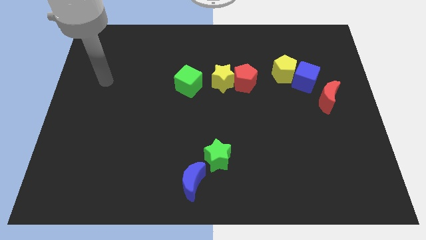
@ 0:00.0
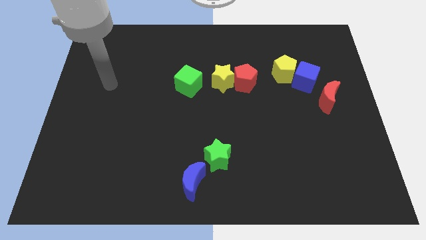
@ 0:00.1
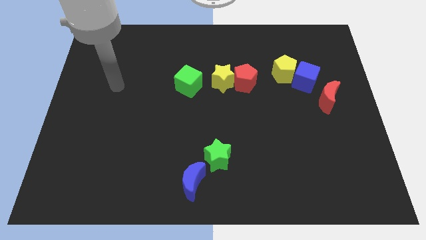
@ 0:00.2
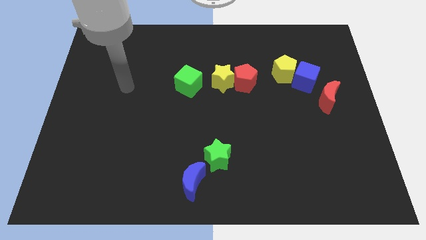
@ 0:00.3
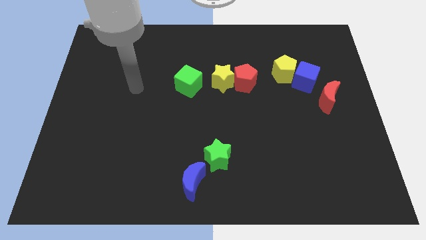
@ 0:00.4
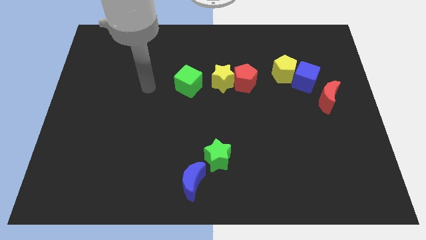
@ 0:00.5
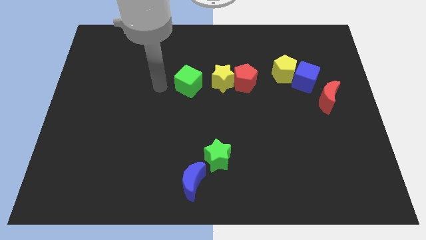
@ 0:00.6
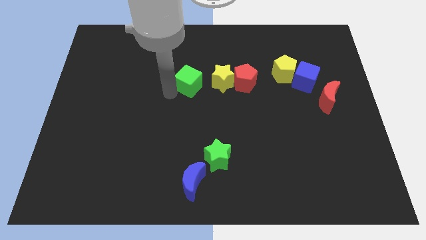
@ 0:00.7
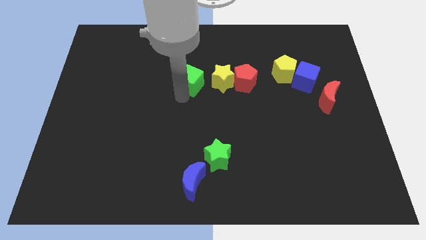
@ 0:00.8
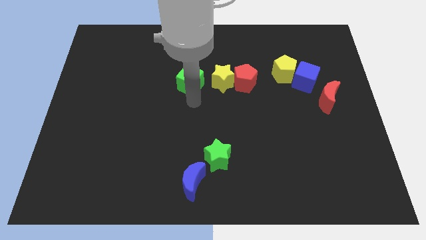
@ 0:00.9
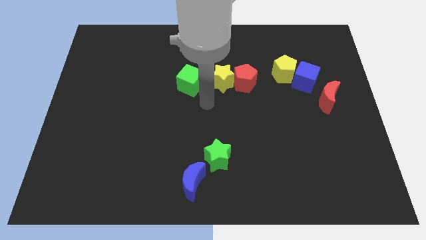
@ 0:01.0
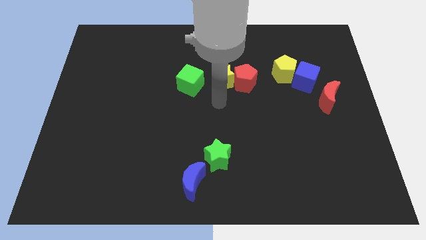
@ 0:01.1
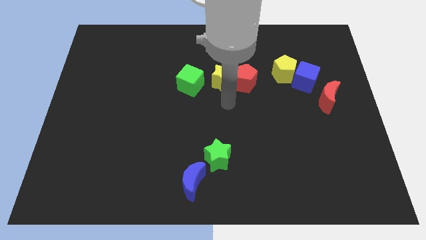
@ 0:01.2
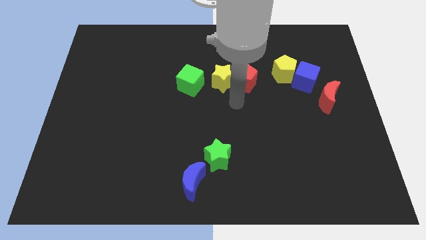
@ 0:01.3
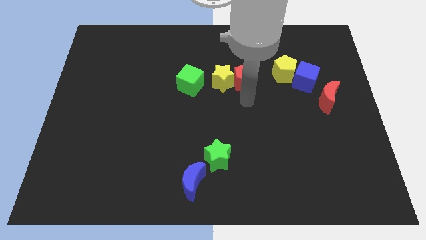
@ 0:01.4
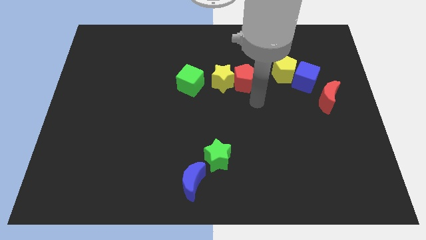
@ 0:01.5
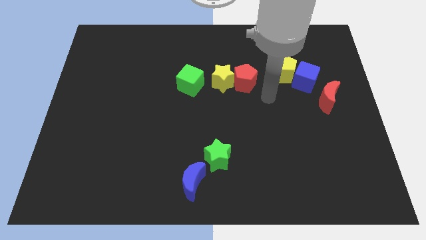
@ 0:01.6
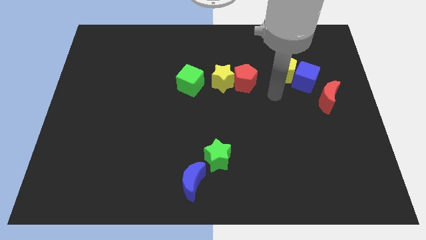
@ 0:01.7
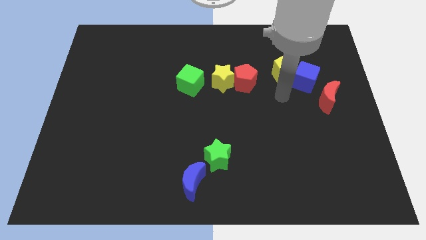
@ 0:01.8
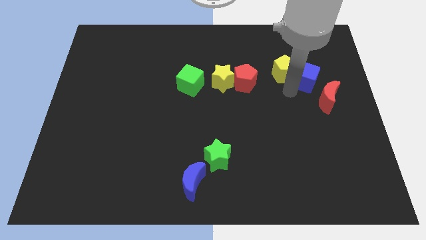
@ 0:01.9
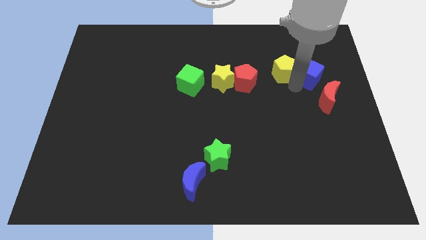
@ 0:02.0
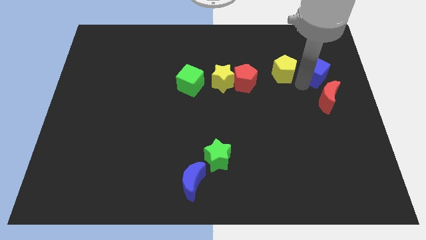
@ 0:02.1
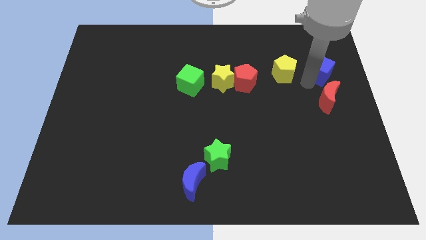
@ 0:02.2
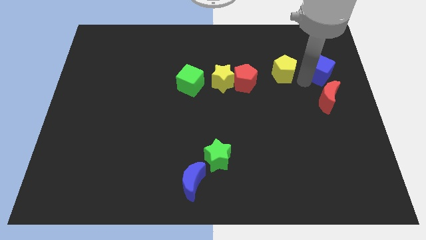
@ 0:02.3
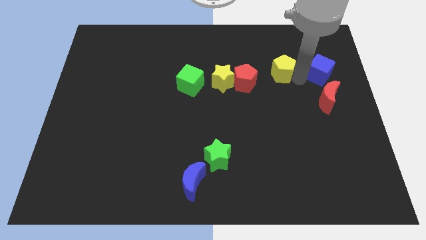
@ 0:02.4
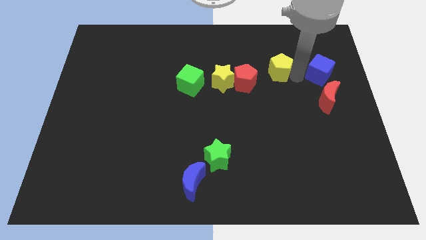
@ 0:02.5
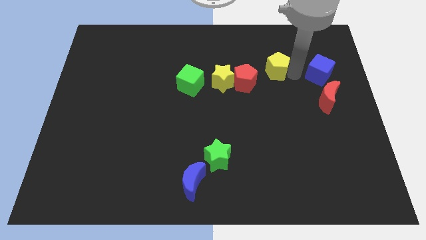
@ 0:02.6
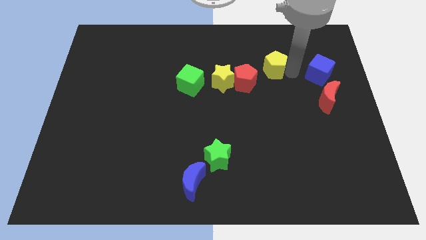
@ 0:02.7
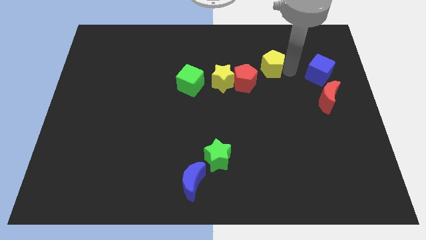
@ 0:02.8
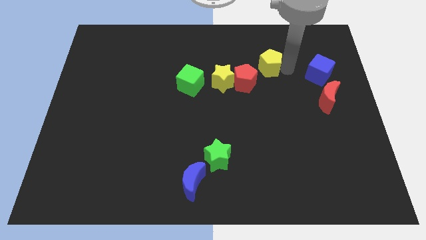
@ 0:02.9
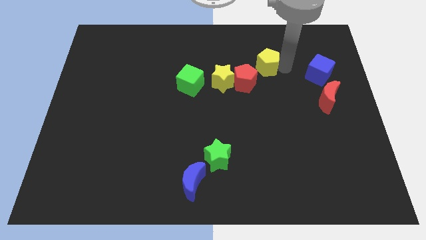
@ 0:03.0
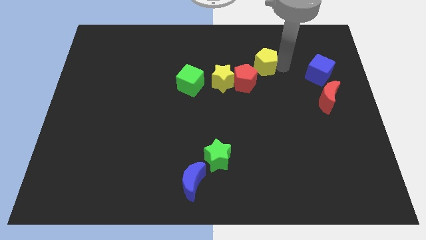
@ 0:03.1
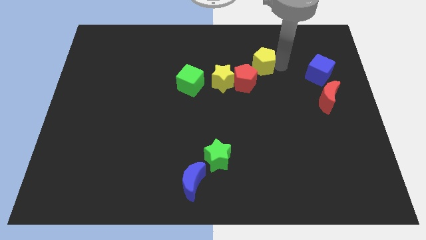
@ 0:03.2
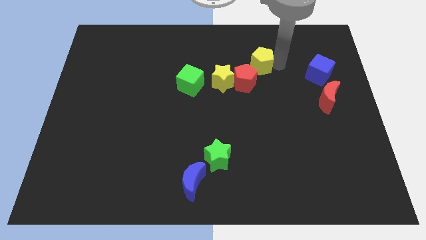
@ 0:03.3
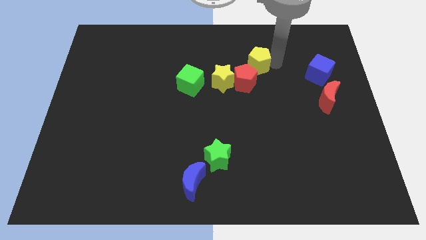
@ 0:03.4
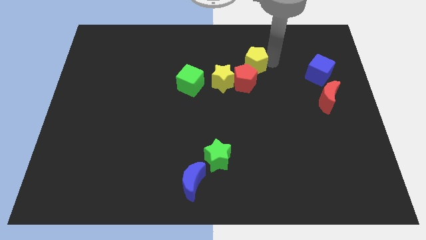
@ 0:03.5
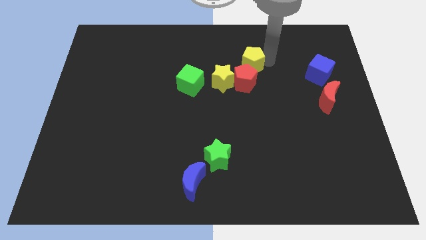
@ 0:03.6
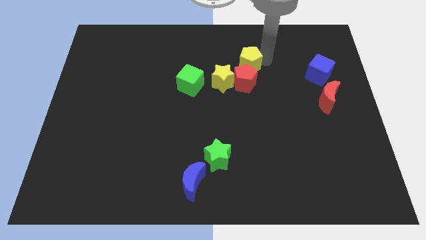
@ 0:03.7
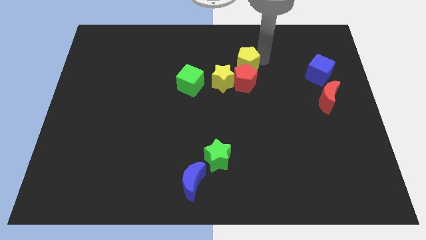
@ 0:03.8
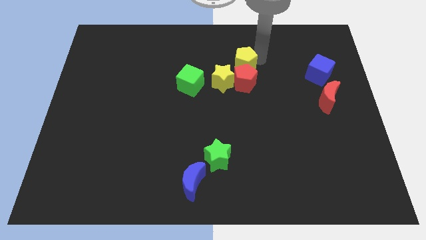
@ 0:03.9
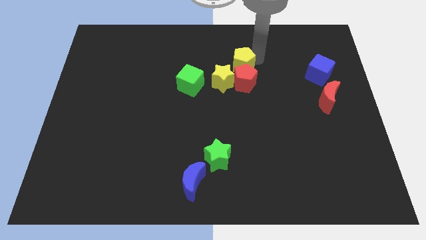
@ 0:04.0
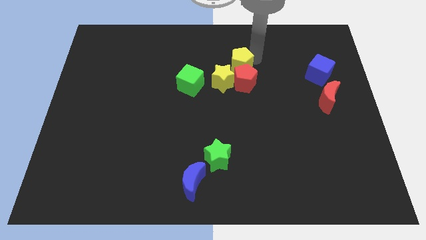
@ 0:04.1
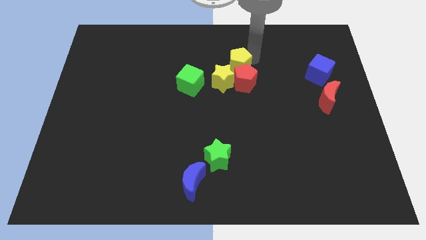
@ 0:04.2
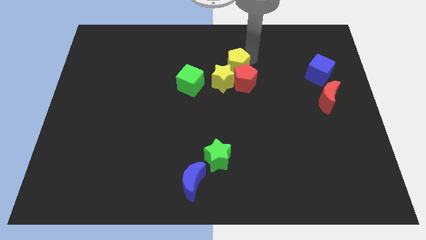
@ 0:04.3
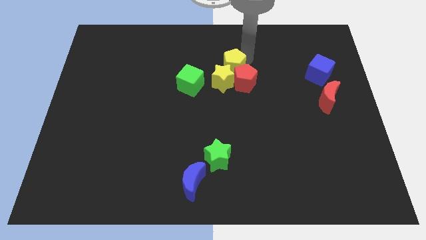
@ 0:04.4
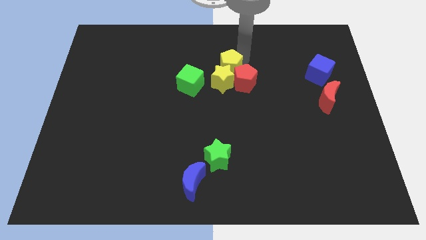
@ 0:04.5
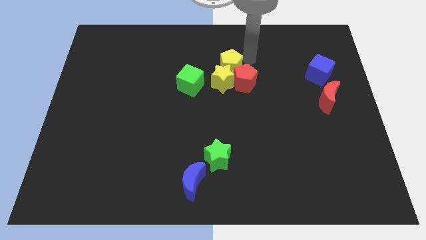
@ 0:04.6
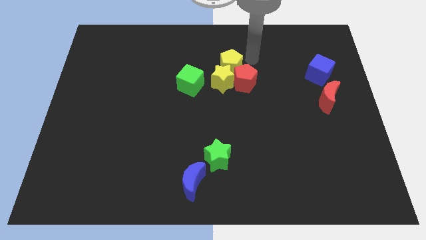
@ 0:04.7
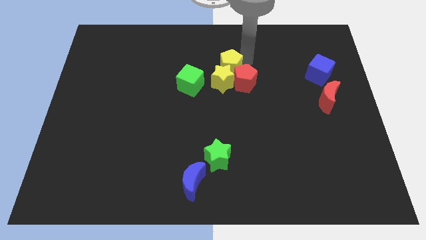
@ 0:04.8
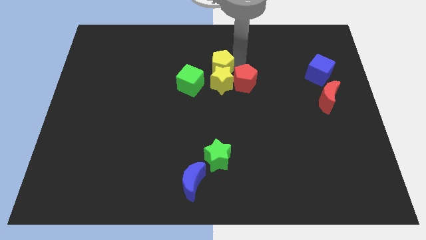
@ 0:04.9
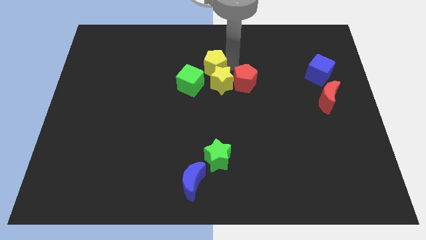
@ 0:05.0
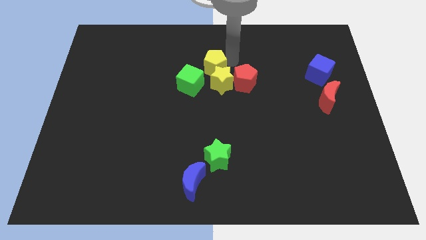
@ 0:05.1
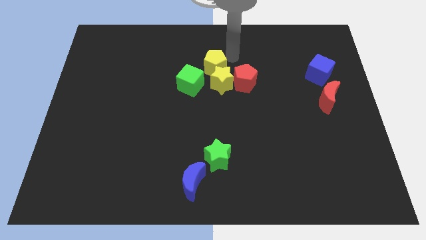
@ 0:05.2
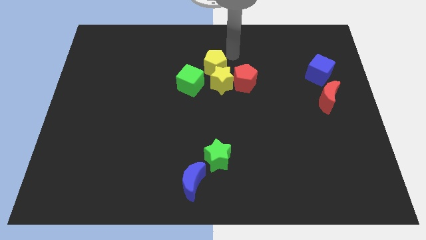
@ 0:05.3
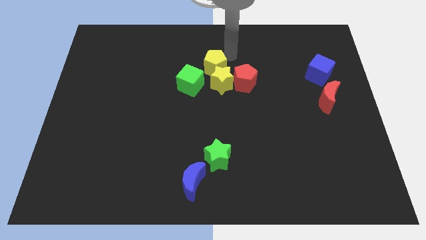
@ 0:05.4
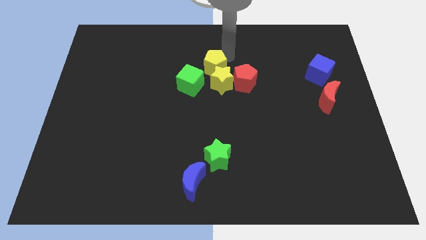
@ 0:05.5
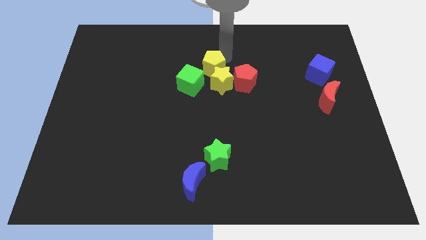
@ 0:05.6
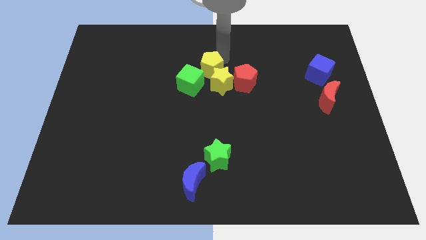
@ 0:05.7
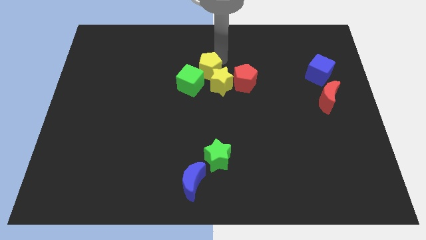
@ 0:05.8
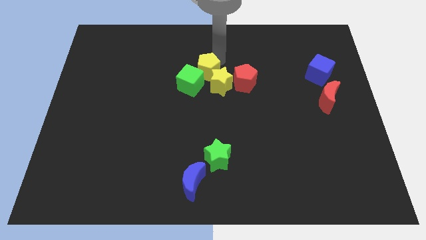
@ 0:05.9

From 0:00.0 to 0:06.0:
put the yellow pentagon next to the green cube

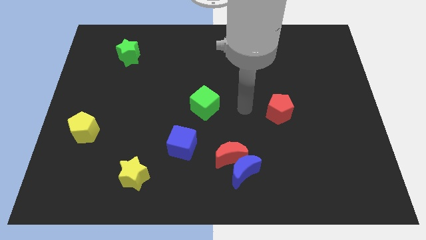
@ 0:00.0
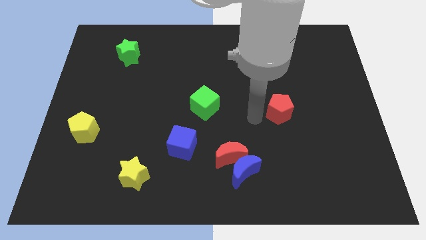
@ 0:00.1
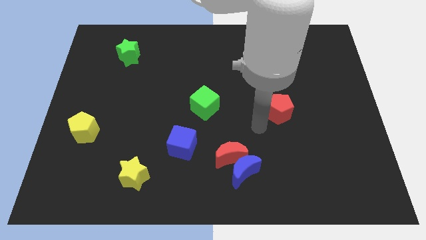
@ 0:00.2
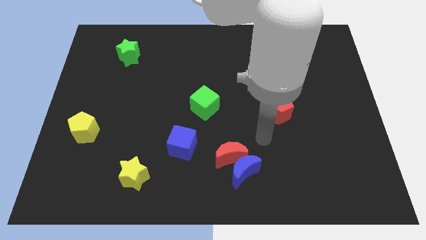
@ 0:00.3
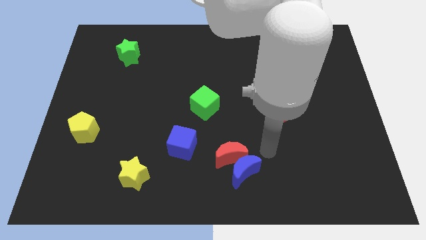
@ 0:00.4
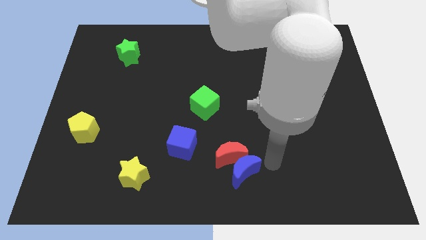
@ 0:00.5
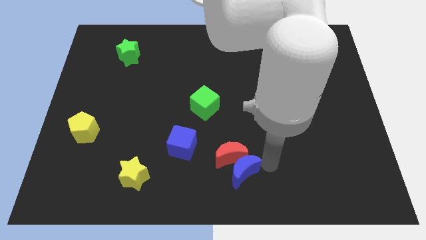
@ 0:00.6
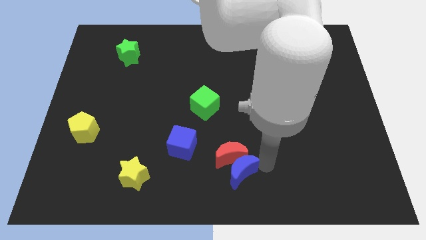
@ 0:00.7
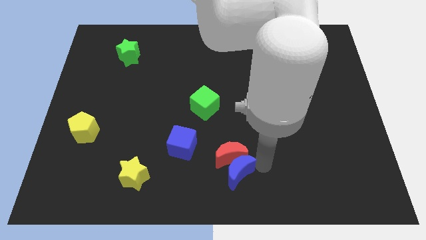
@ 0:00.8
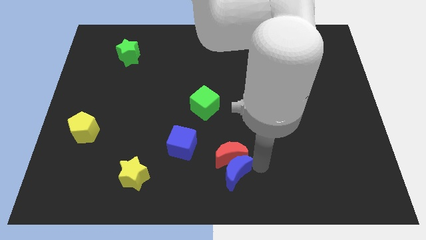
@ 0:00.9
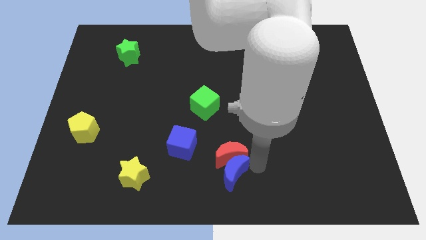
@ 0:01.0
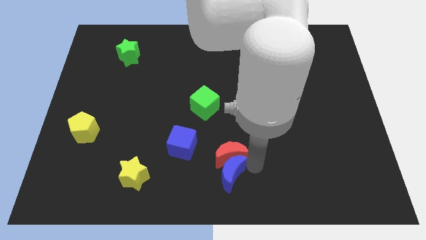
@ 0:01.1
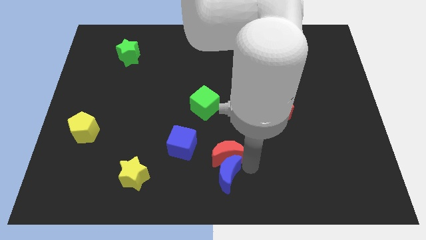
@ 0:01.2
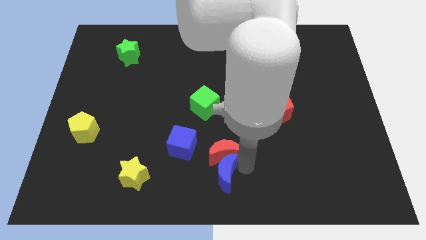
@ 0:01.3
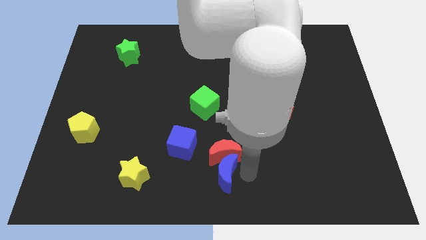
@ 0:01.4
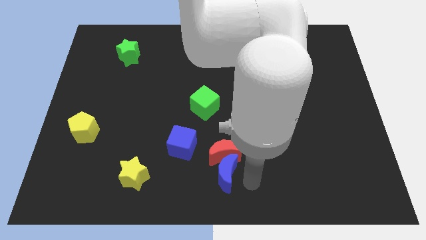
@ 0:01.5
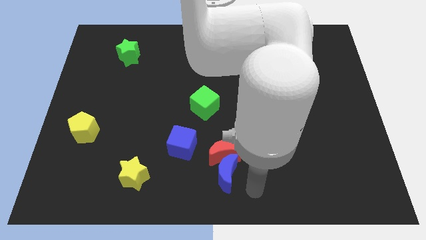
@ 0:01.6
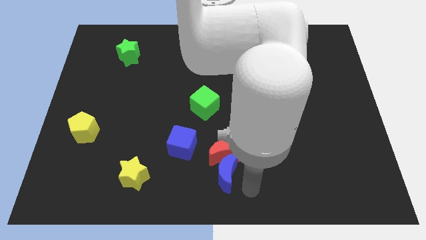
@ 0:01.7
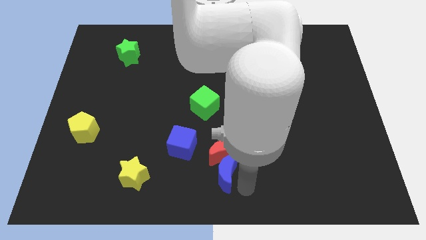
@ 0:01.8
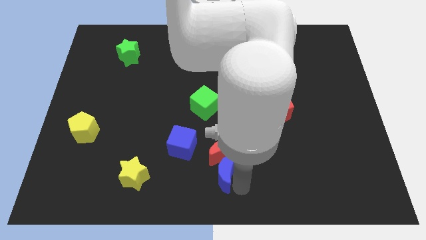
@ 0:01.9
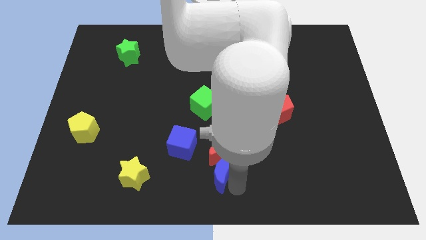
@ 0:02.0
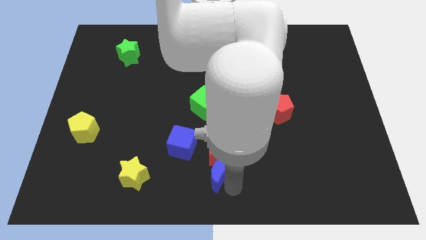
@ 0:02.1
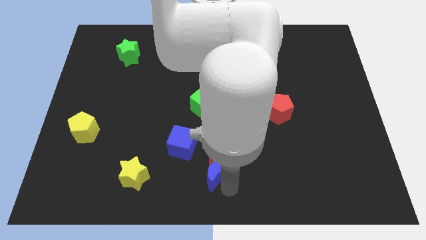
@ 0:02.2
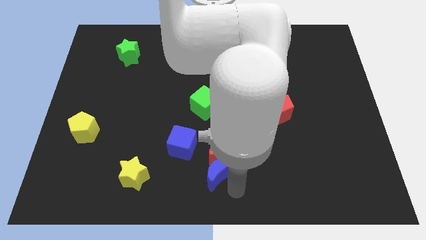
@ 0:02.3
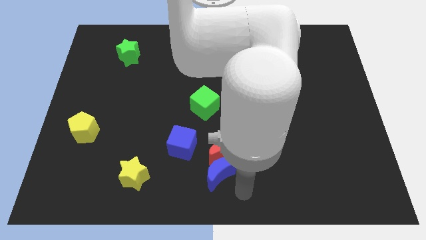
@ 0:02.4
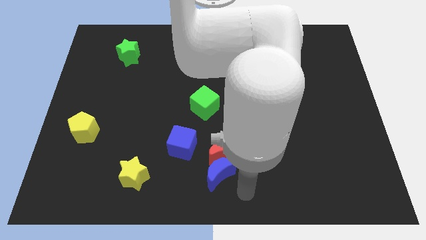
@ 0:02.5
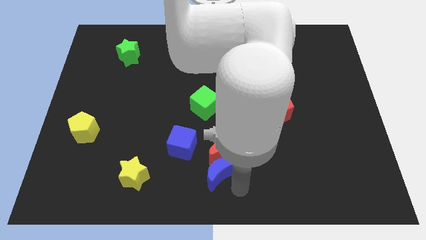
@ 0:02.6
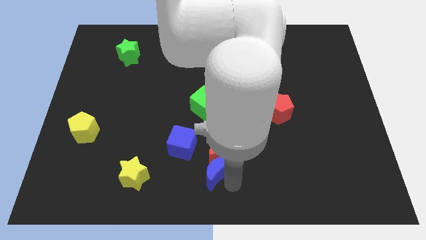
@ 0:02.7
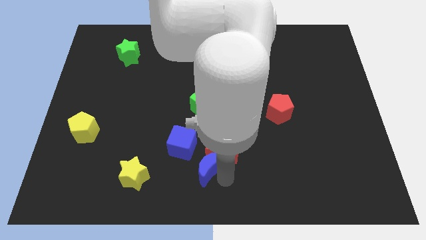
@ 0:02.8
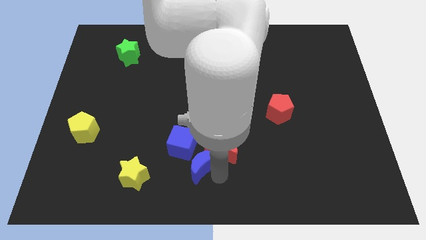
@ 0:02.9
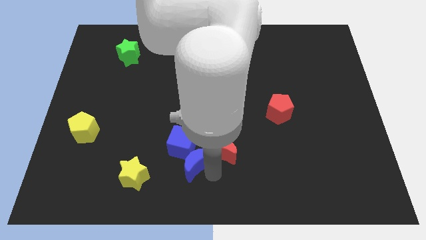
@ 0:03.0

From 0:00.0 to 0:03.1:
push the blue moon close to the blue cube
